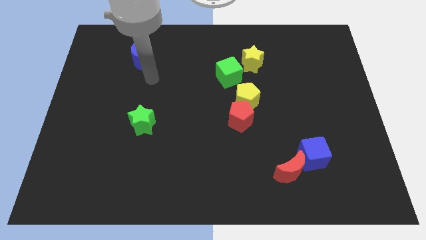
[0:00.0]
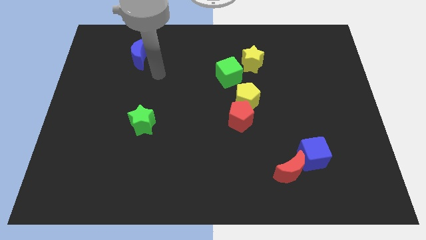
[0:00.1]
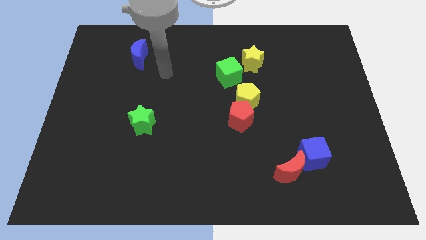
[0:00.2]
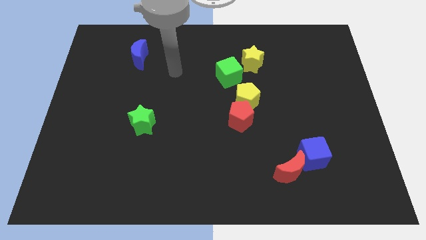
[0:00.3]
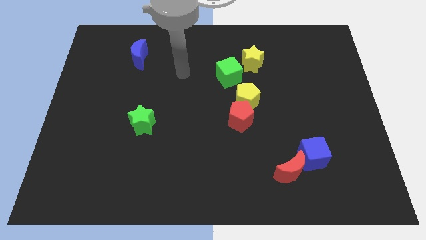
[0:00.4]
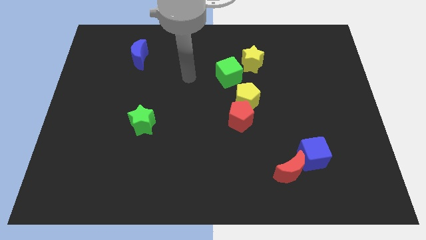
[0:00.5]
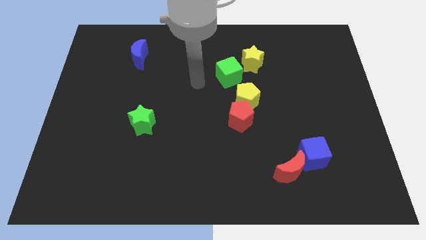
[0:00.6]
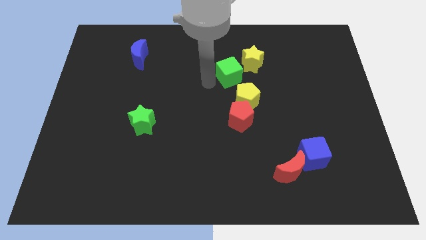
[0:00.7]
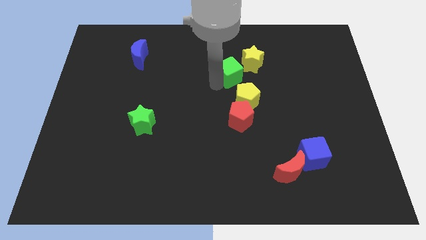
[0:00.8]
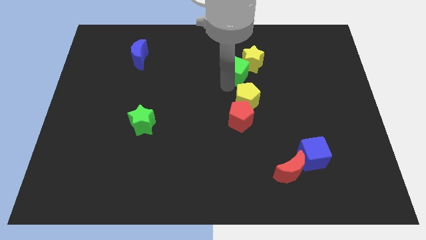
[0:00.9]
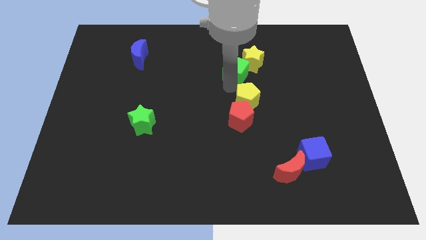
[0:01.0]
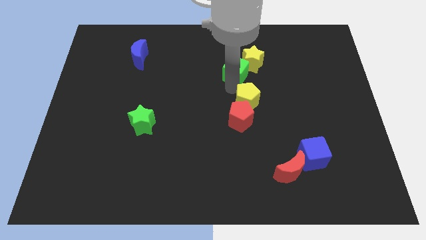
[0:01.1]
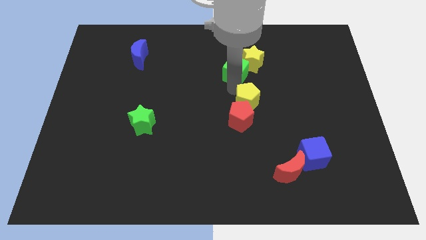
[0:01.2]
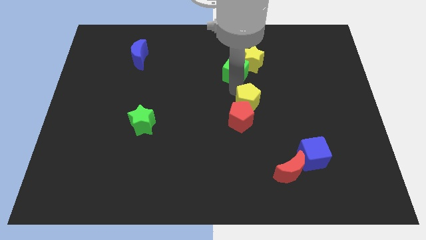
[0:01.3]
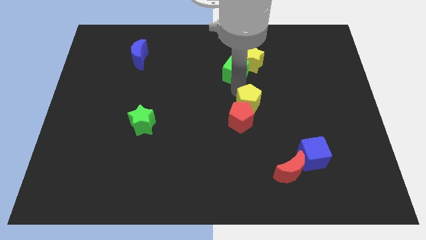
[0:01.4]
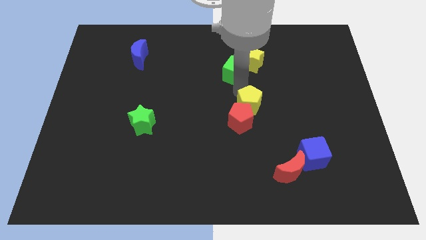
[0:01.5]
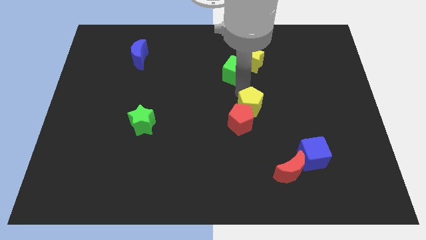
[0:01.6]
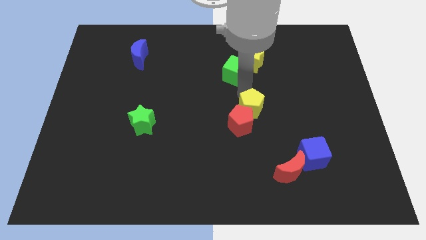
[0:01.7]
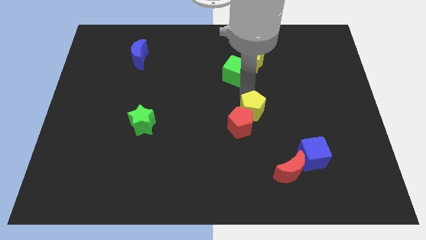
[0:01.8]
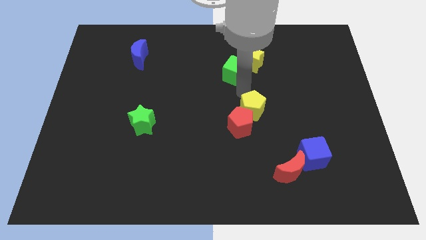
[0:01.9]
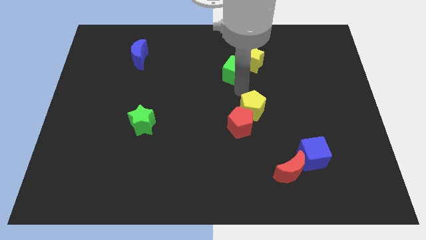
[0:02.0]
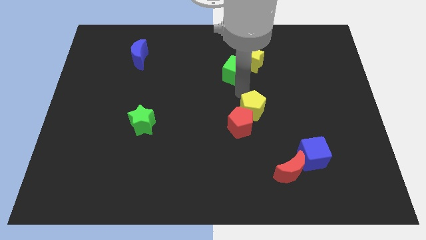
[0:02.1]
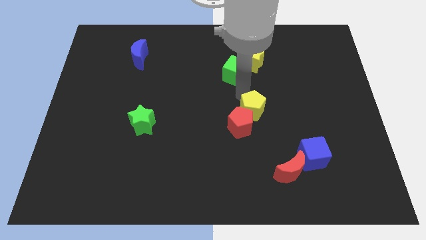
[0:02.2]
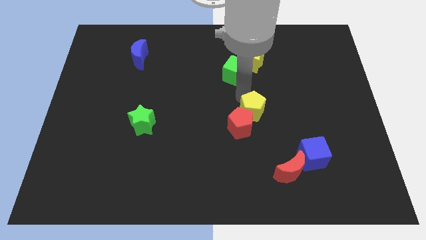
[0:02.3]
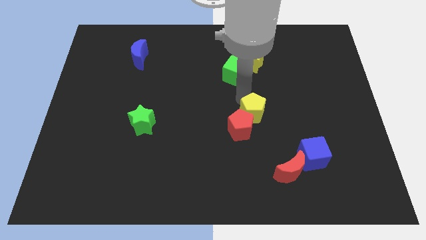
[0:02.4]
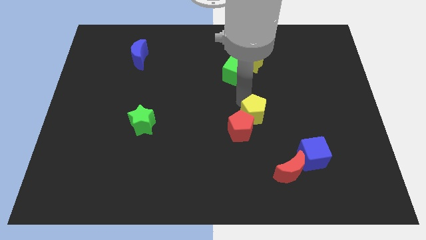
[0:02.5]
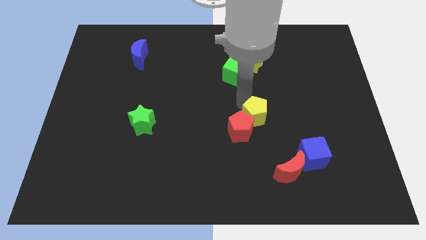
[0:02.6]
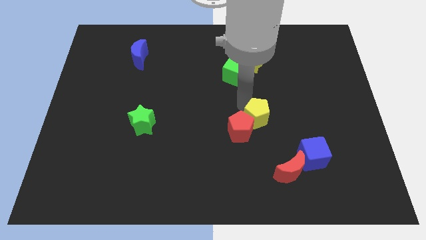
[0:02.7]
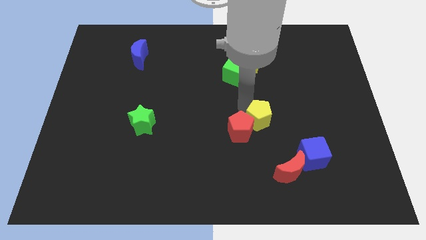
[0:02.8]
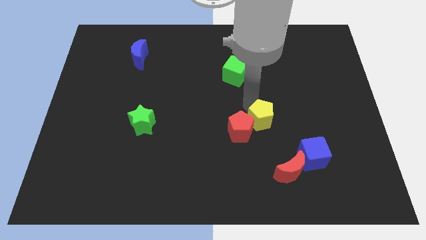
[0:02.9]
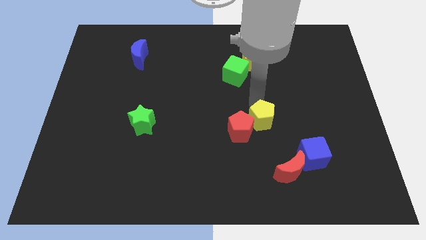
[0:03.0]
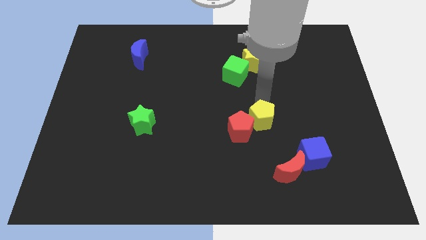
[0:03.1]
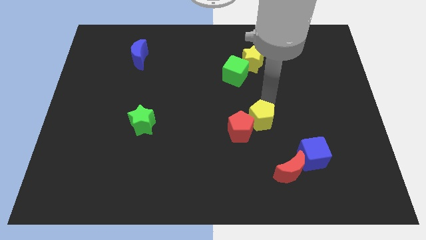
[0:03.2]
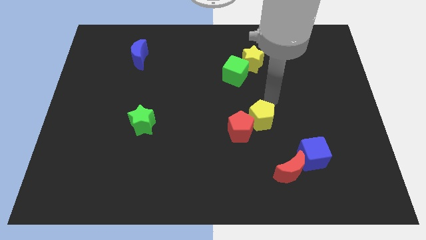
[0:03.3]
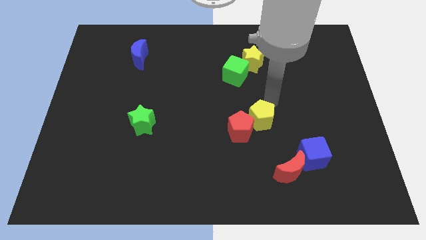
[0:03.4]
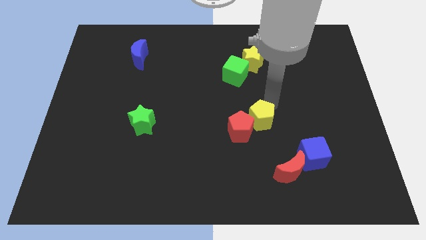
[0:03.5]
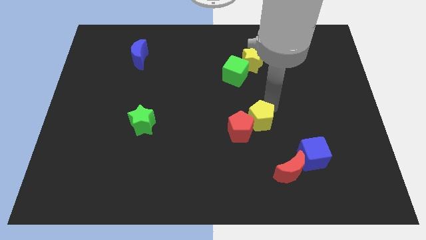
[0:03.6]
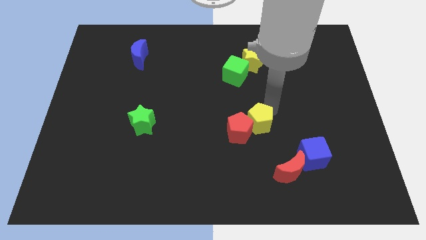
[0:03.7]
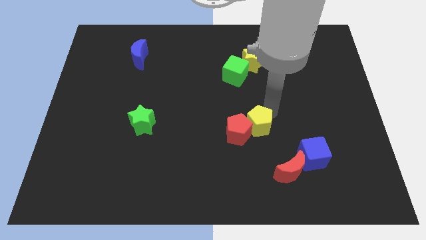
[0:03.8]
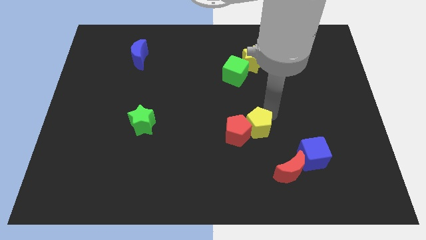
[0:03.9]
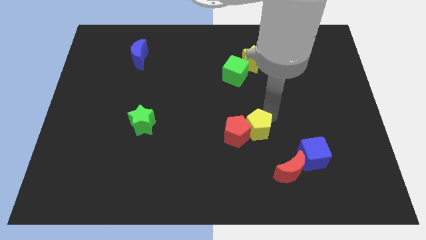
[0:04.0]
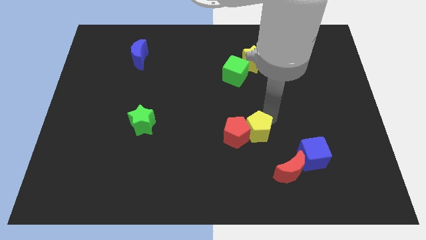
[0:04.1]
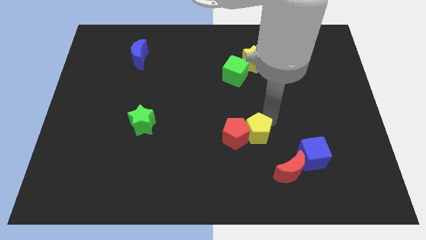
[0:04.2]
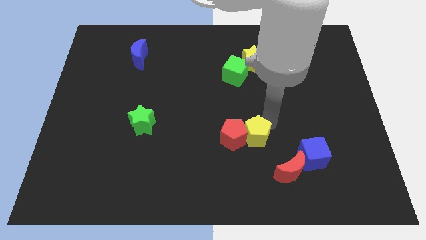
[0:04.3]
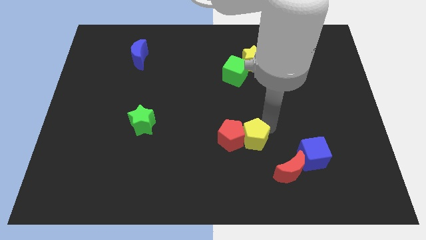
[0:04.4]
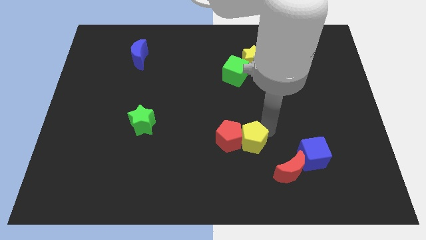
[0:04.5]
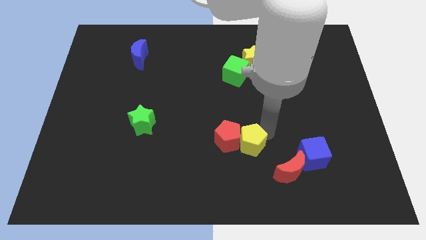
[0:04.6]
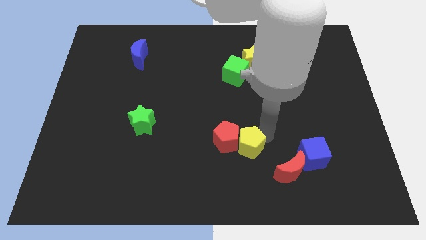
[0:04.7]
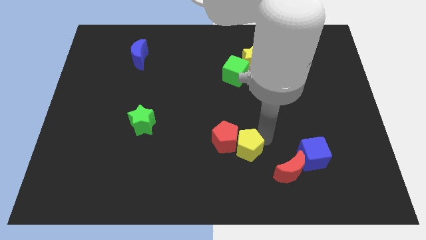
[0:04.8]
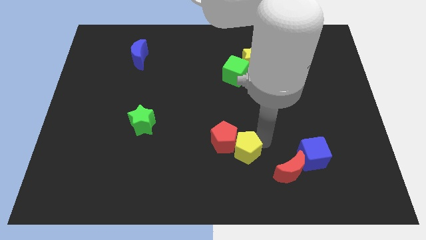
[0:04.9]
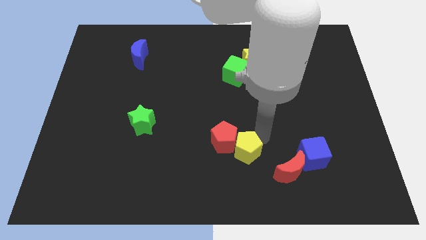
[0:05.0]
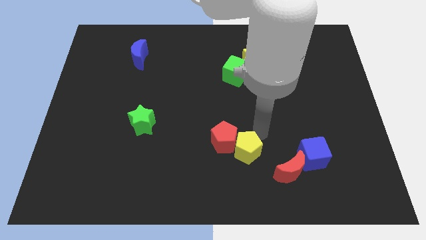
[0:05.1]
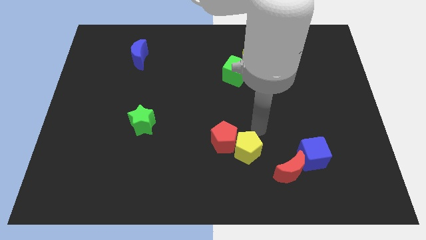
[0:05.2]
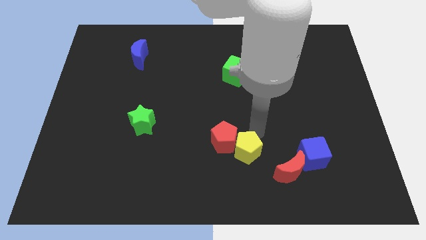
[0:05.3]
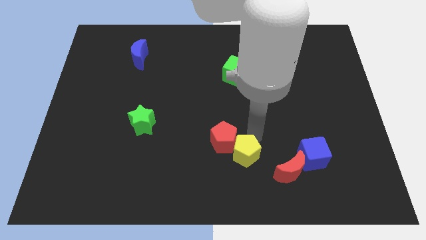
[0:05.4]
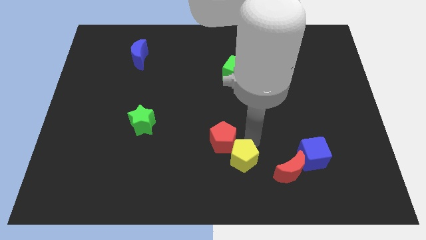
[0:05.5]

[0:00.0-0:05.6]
slide the yellow pentagon to the bottom side
